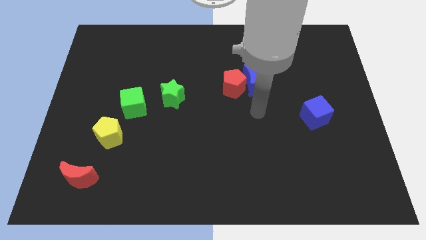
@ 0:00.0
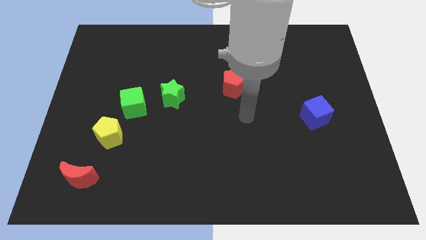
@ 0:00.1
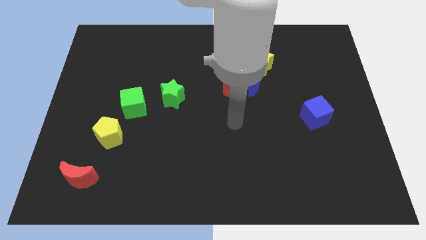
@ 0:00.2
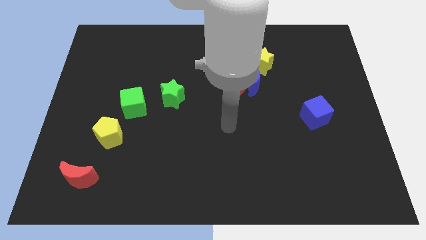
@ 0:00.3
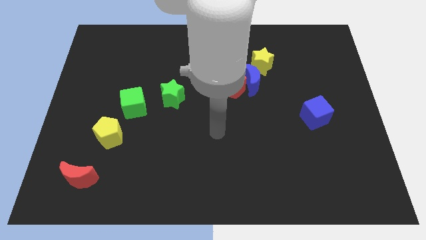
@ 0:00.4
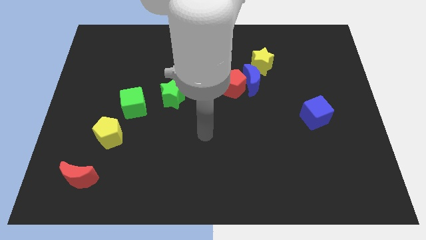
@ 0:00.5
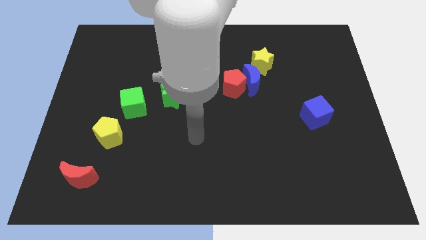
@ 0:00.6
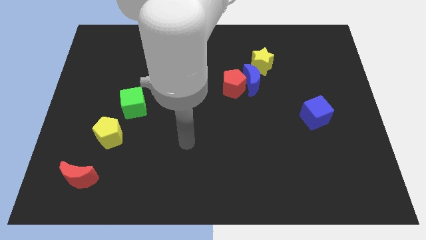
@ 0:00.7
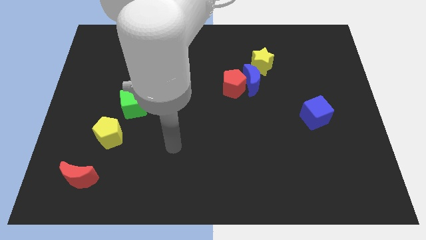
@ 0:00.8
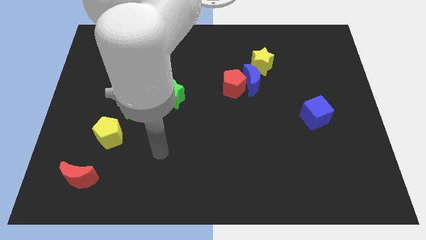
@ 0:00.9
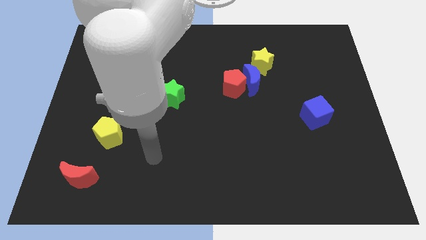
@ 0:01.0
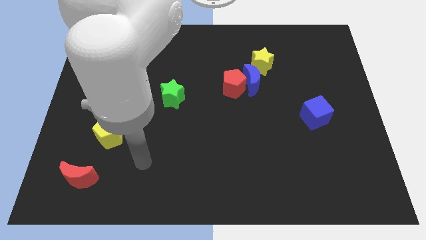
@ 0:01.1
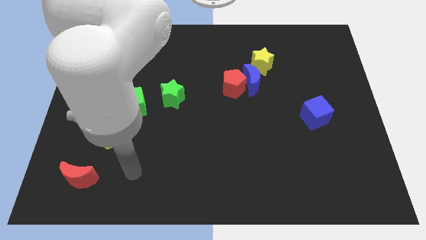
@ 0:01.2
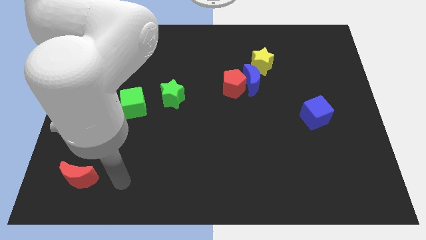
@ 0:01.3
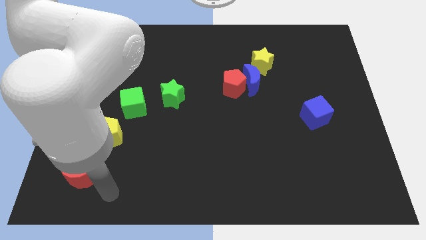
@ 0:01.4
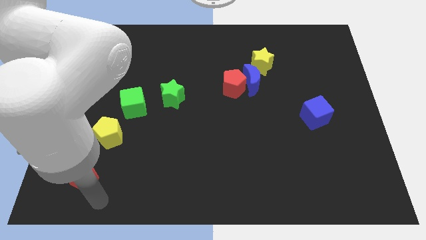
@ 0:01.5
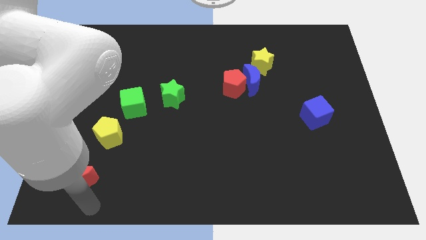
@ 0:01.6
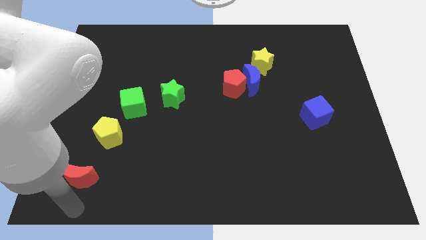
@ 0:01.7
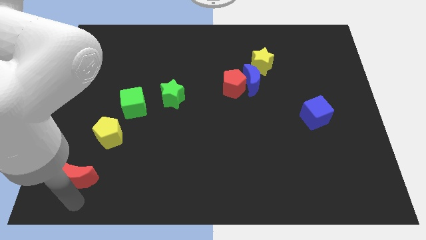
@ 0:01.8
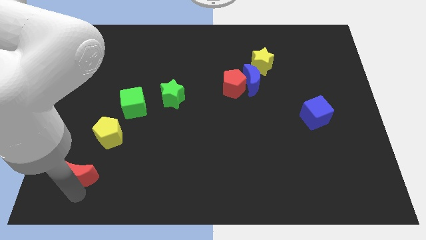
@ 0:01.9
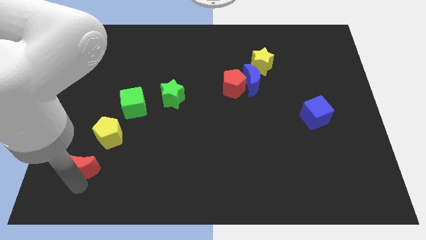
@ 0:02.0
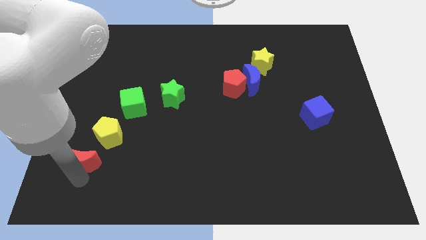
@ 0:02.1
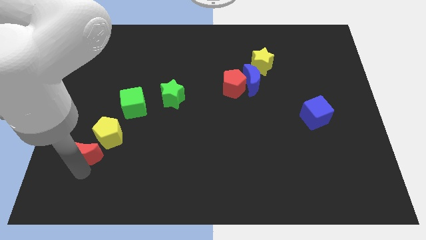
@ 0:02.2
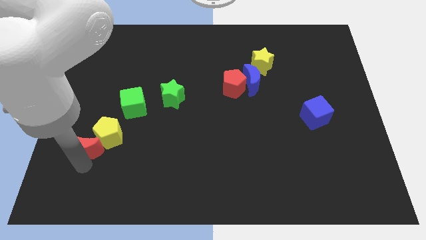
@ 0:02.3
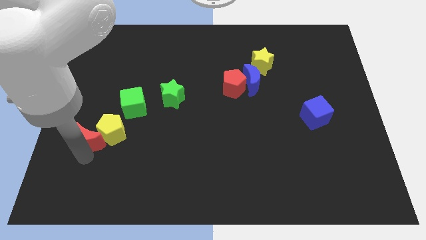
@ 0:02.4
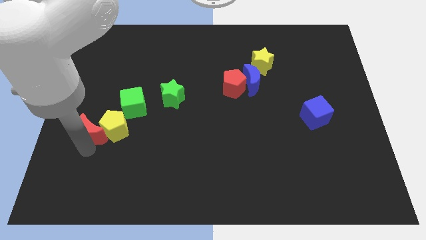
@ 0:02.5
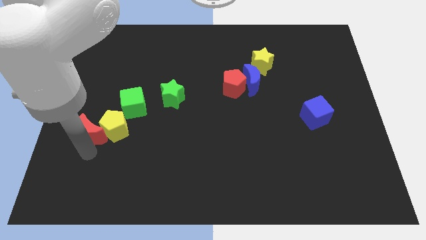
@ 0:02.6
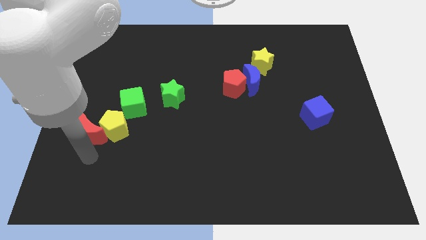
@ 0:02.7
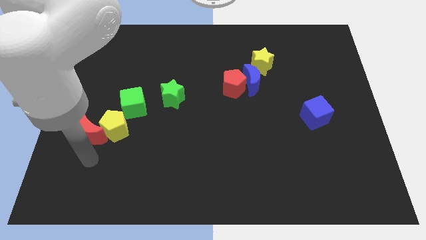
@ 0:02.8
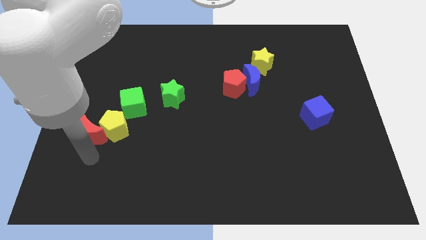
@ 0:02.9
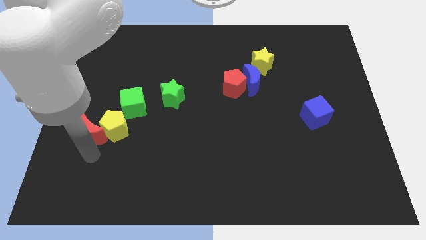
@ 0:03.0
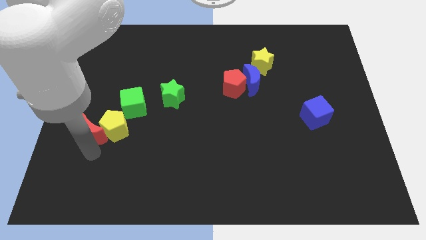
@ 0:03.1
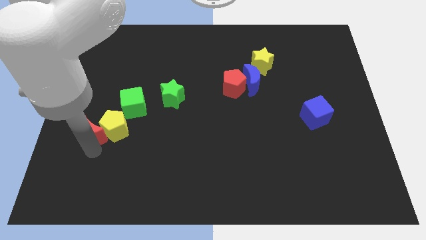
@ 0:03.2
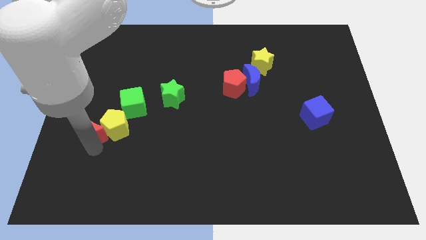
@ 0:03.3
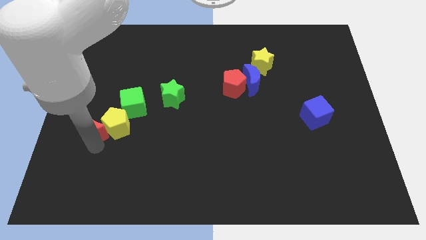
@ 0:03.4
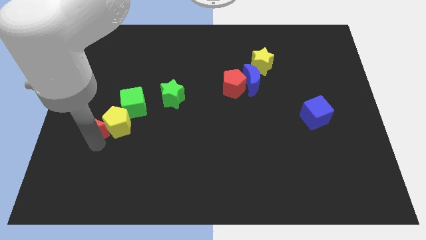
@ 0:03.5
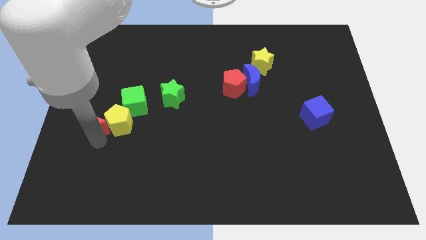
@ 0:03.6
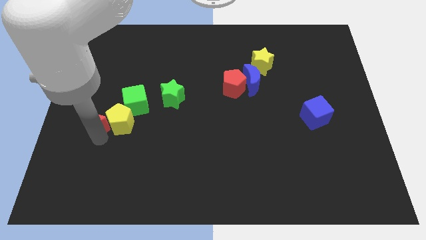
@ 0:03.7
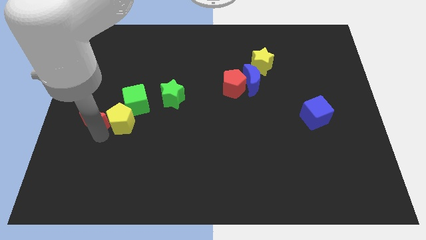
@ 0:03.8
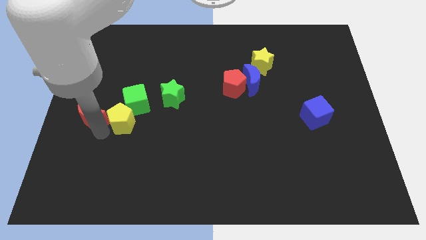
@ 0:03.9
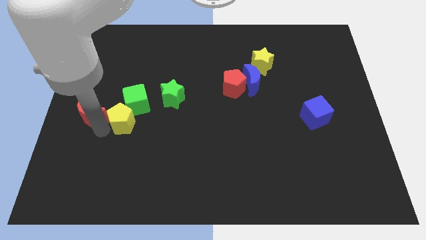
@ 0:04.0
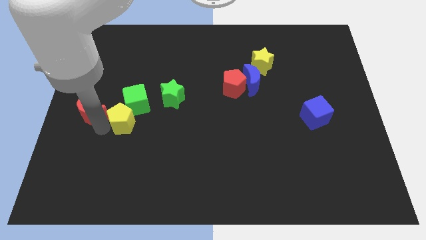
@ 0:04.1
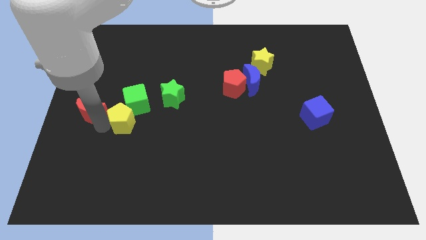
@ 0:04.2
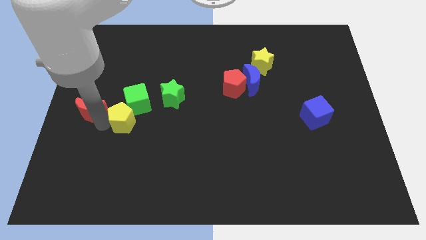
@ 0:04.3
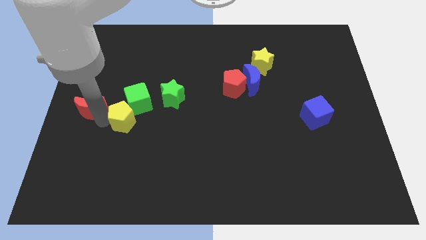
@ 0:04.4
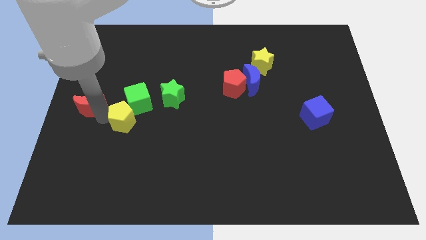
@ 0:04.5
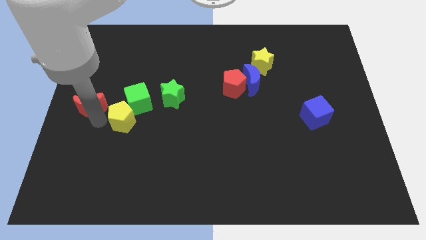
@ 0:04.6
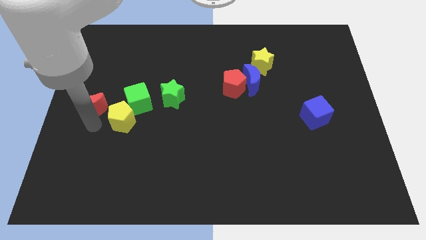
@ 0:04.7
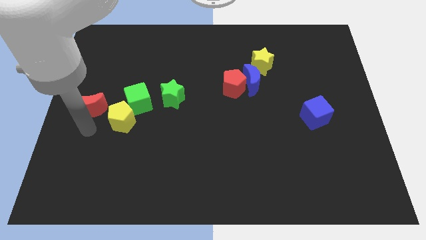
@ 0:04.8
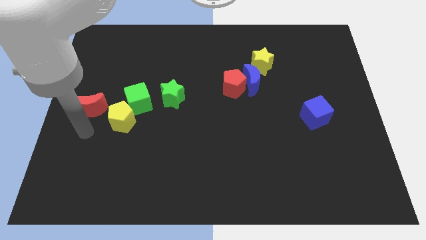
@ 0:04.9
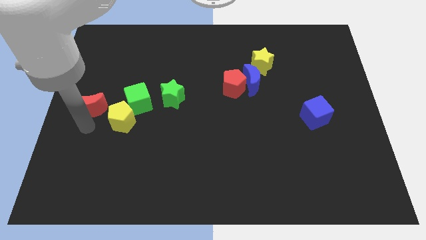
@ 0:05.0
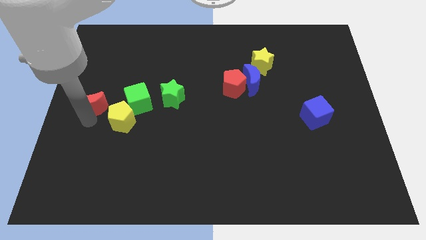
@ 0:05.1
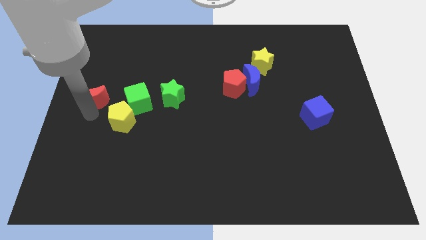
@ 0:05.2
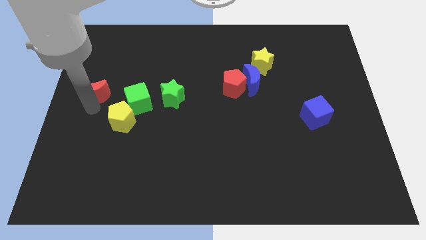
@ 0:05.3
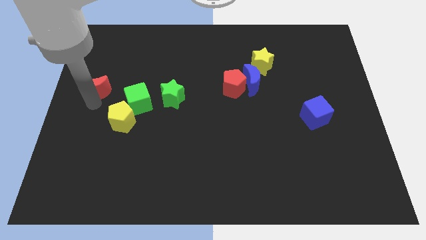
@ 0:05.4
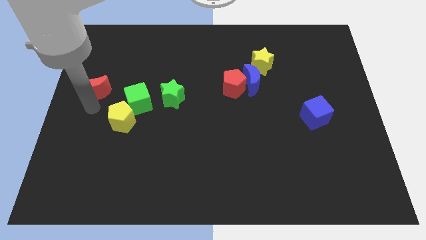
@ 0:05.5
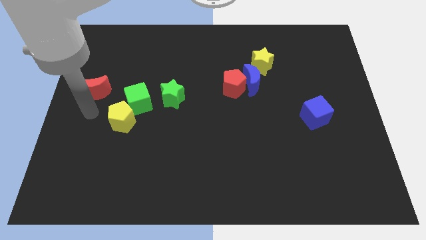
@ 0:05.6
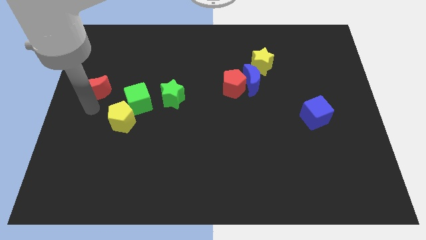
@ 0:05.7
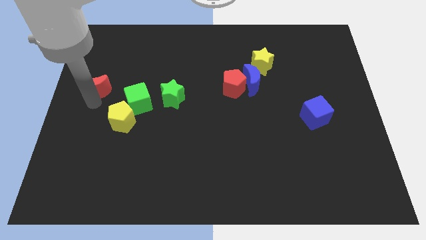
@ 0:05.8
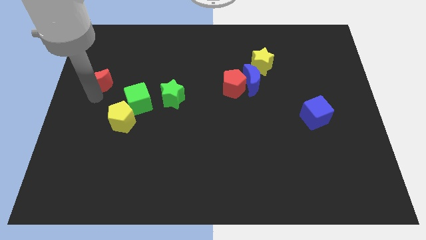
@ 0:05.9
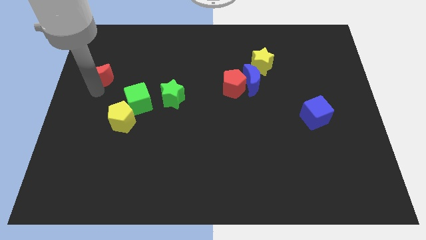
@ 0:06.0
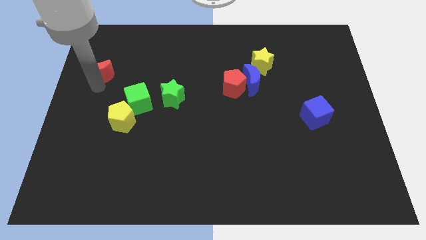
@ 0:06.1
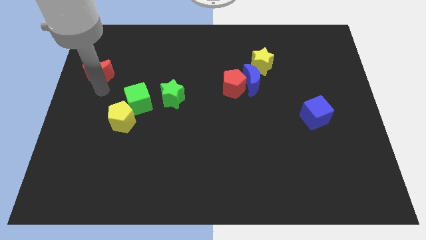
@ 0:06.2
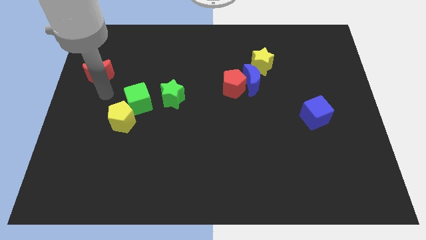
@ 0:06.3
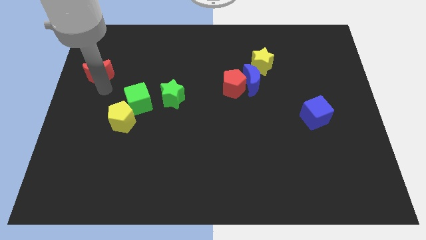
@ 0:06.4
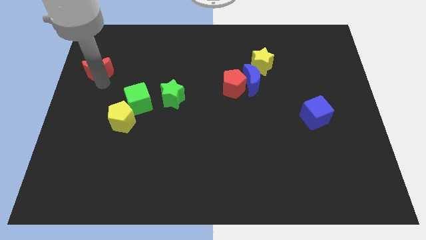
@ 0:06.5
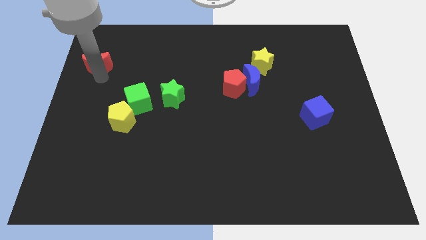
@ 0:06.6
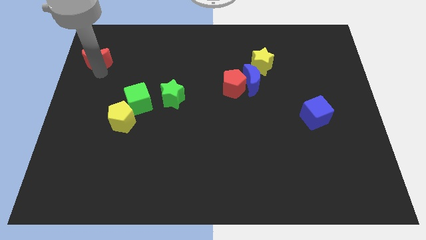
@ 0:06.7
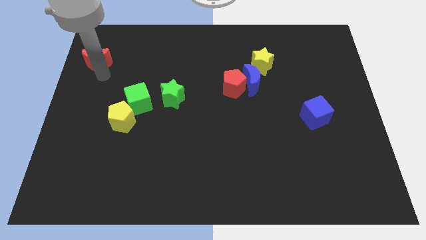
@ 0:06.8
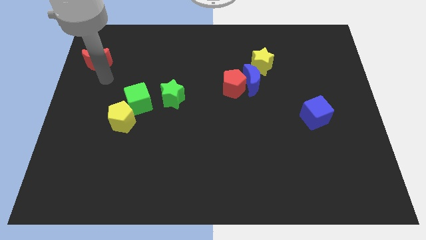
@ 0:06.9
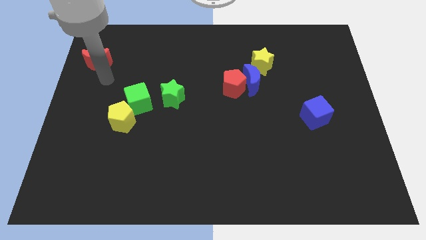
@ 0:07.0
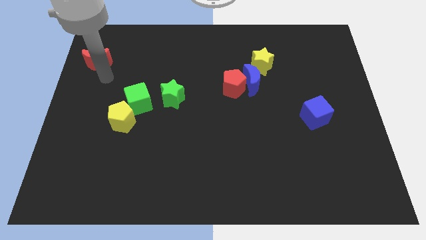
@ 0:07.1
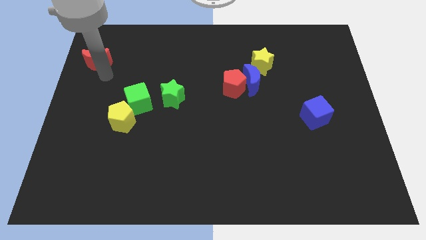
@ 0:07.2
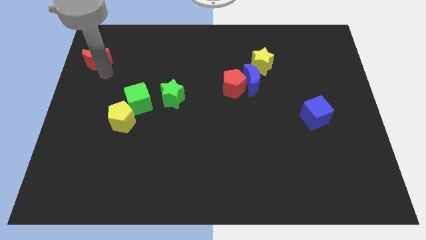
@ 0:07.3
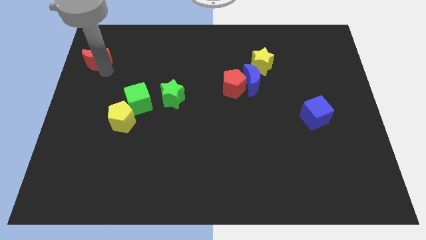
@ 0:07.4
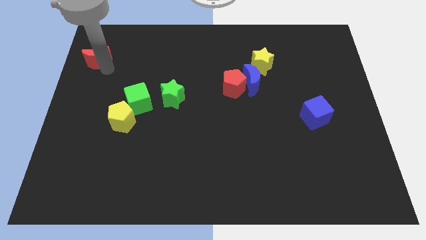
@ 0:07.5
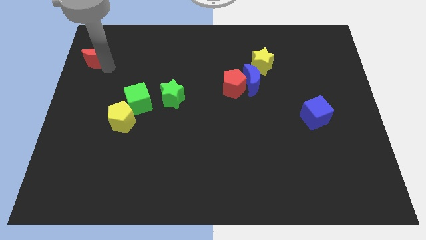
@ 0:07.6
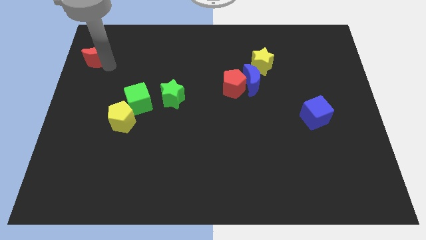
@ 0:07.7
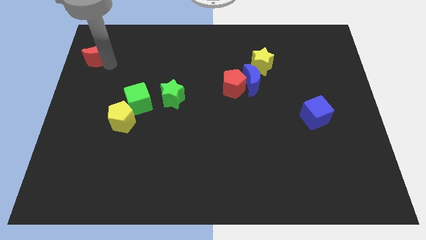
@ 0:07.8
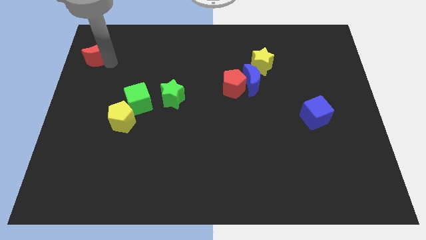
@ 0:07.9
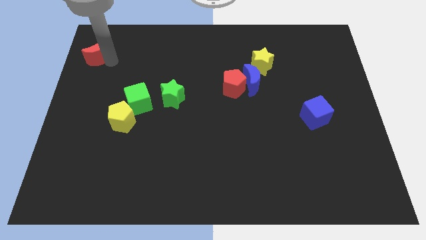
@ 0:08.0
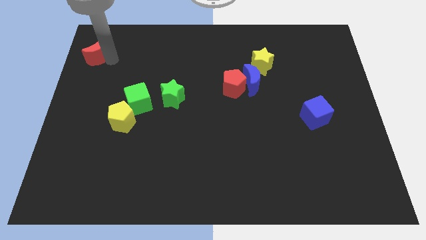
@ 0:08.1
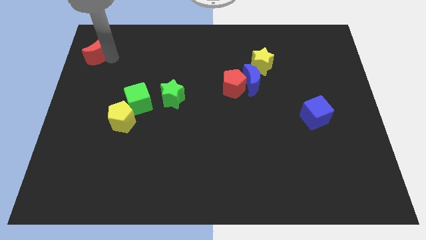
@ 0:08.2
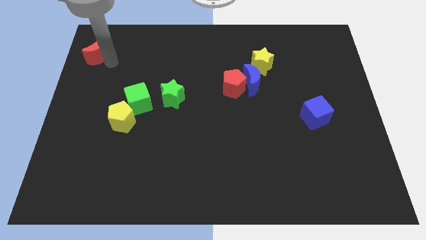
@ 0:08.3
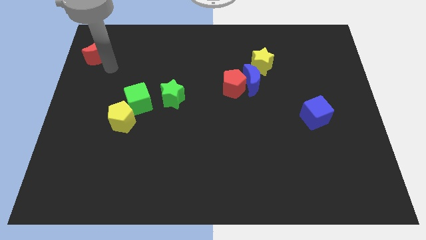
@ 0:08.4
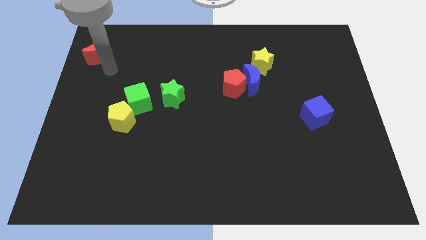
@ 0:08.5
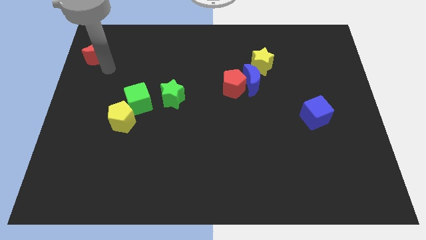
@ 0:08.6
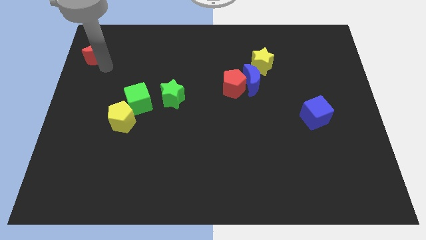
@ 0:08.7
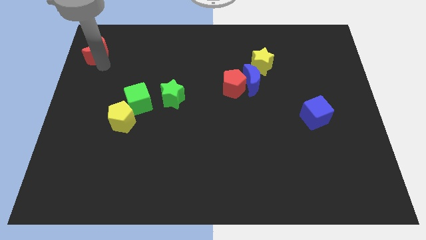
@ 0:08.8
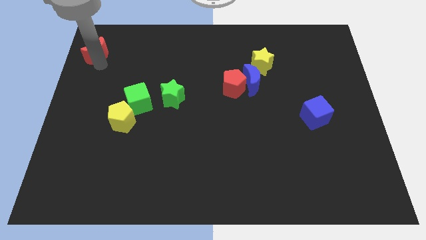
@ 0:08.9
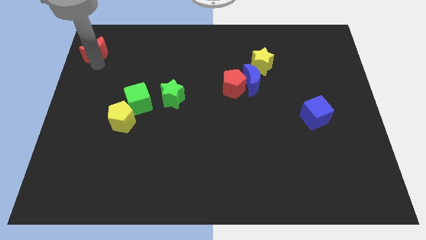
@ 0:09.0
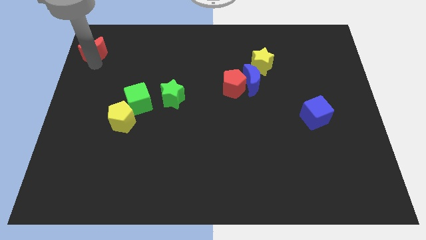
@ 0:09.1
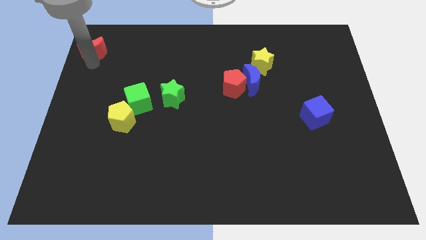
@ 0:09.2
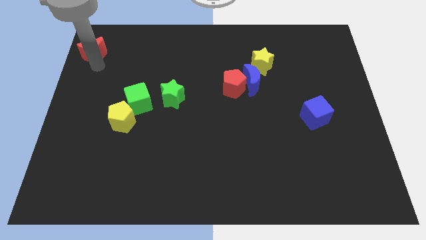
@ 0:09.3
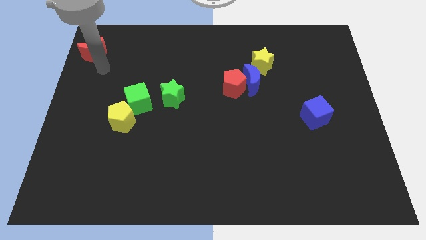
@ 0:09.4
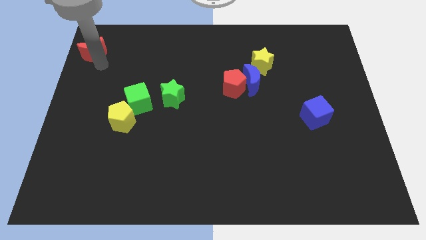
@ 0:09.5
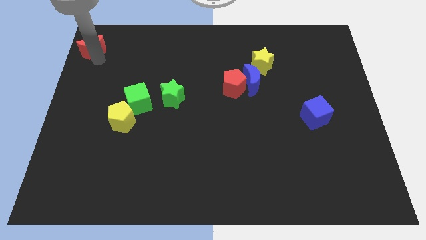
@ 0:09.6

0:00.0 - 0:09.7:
put the red moon to the top left corner
